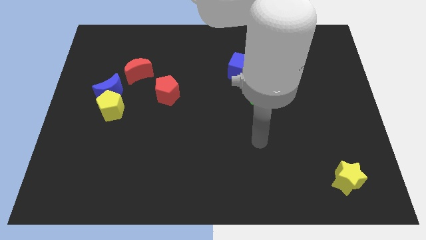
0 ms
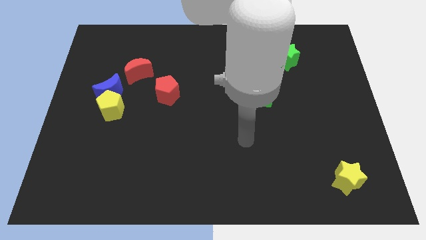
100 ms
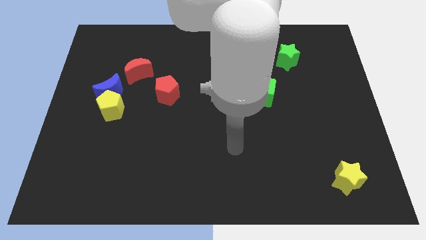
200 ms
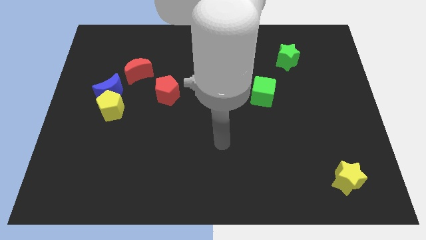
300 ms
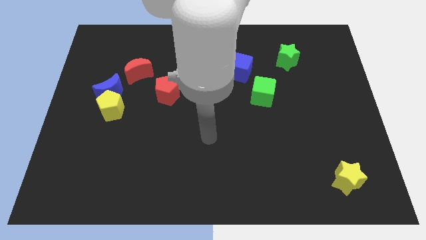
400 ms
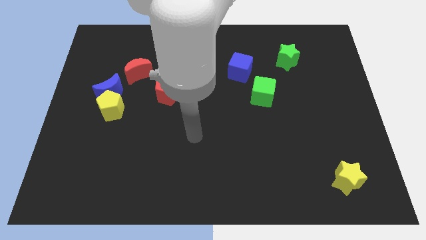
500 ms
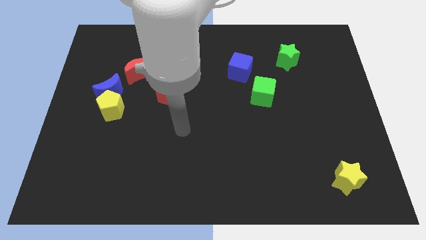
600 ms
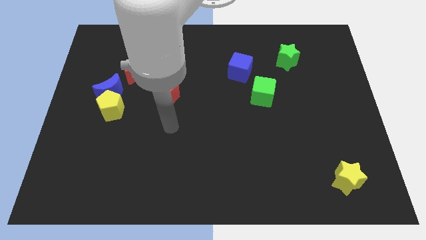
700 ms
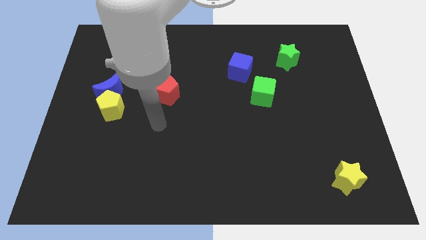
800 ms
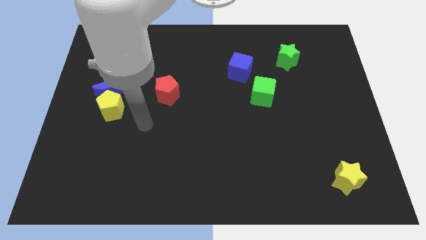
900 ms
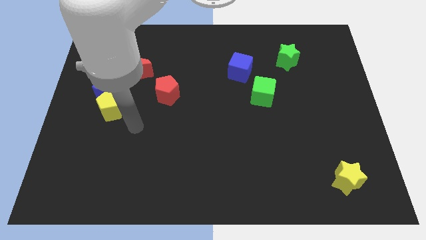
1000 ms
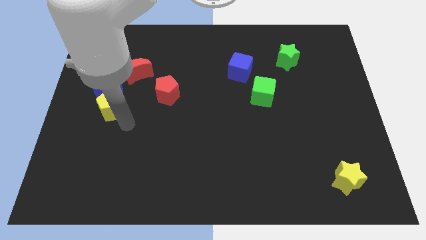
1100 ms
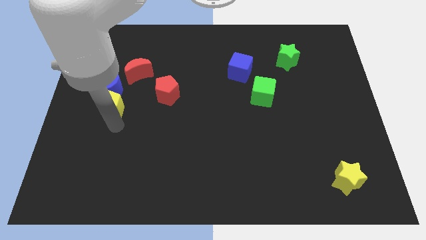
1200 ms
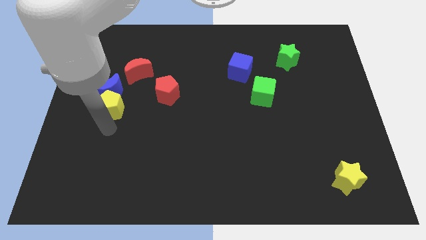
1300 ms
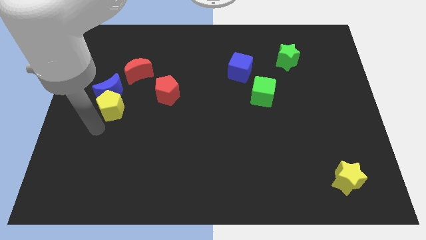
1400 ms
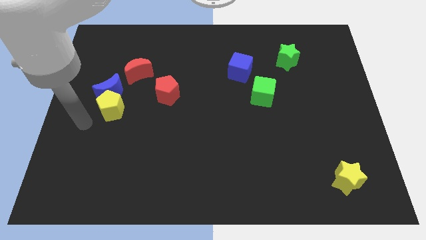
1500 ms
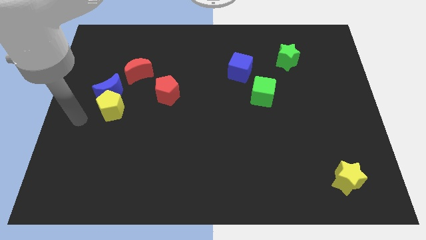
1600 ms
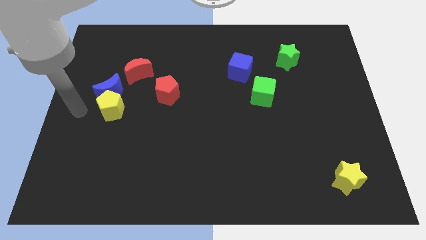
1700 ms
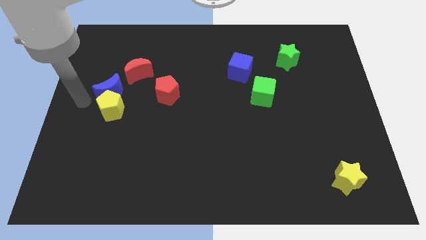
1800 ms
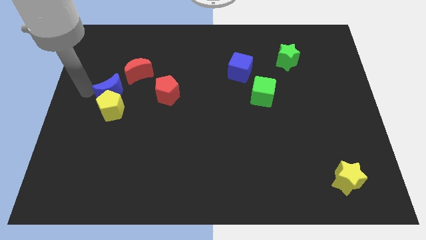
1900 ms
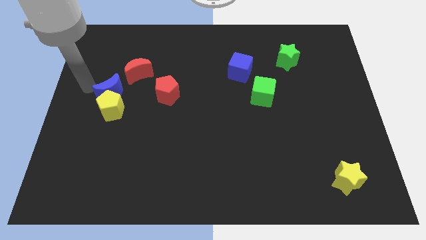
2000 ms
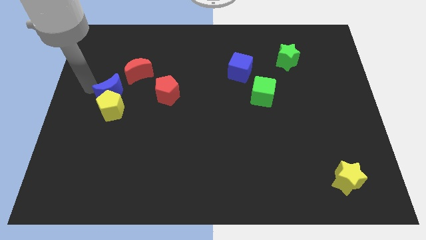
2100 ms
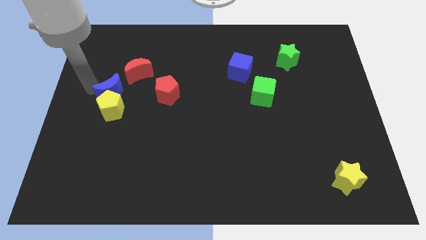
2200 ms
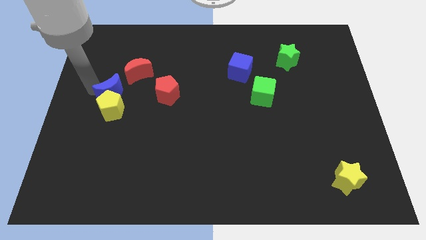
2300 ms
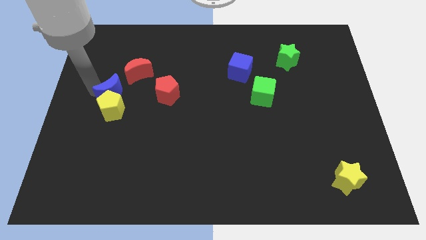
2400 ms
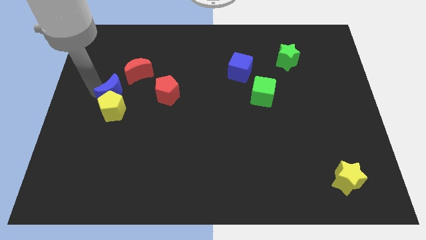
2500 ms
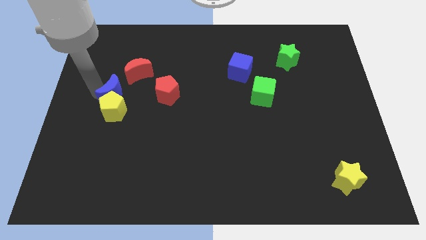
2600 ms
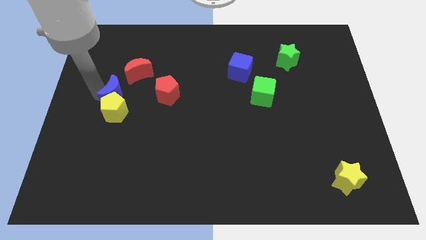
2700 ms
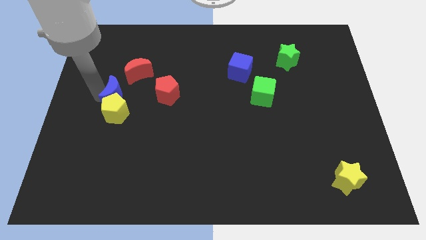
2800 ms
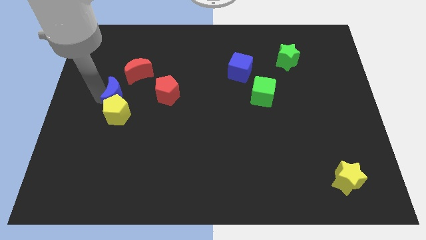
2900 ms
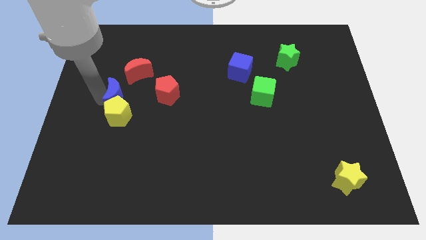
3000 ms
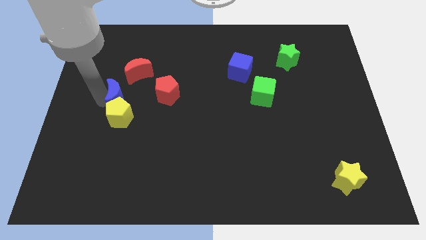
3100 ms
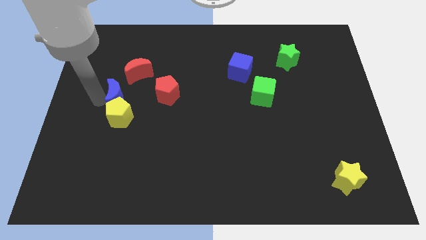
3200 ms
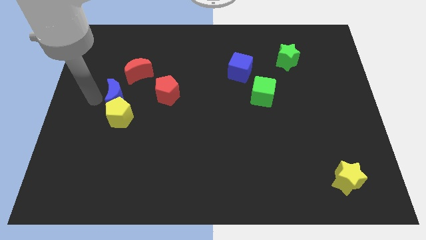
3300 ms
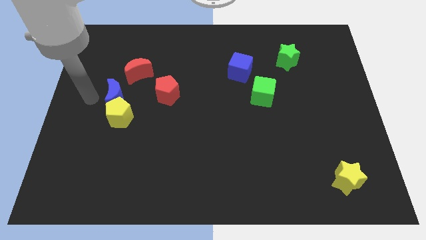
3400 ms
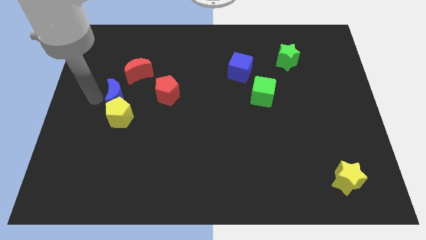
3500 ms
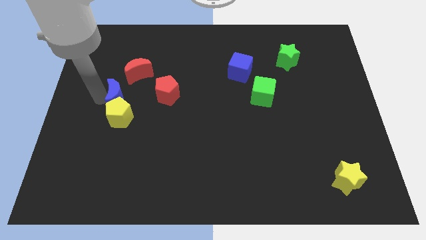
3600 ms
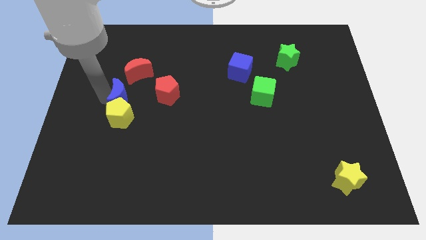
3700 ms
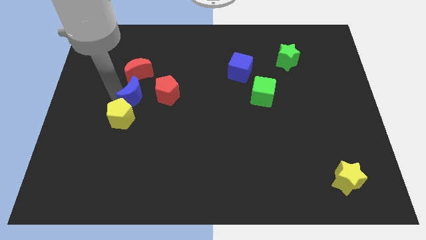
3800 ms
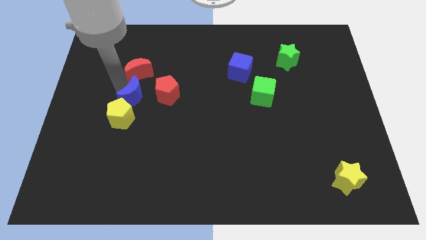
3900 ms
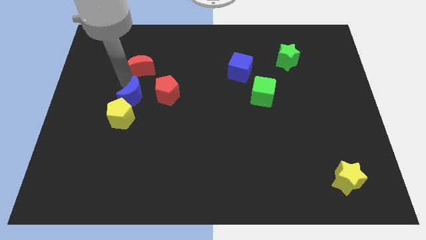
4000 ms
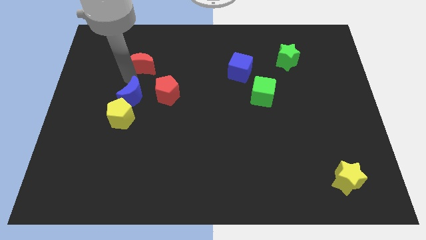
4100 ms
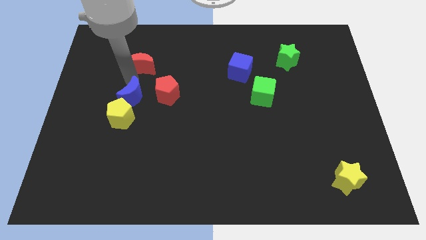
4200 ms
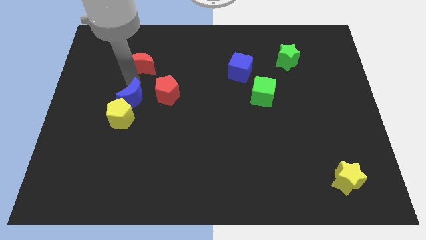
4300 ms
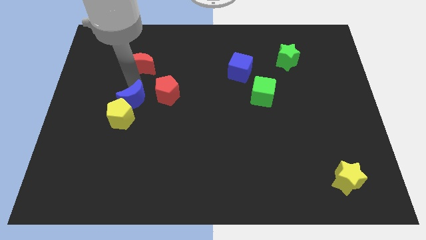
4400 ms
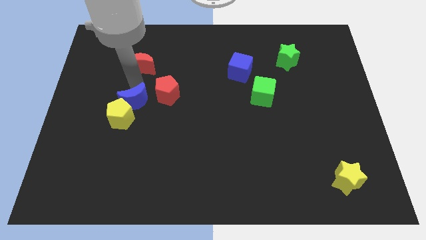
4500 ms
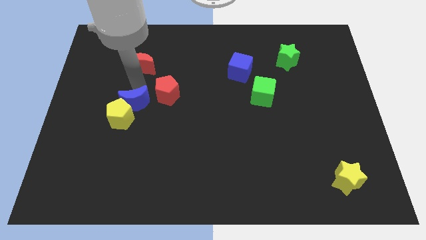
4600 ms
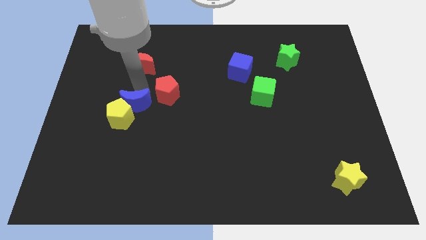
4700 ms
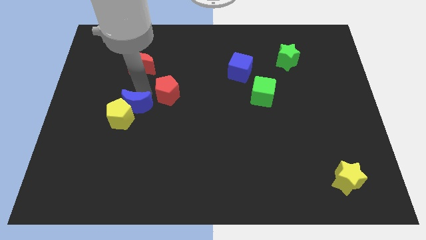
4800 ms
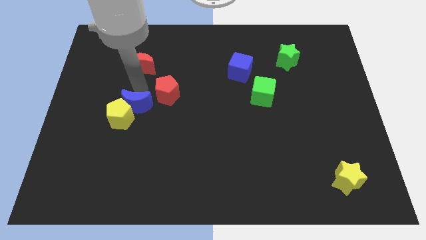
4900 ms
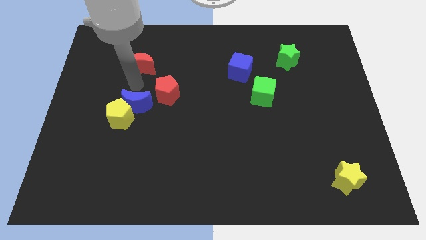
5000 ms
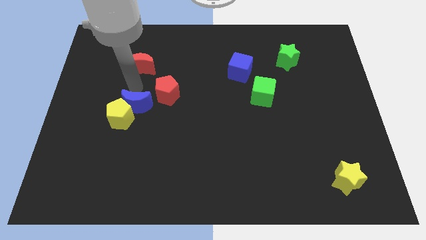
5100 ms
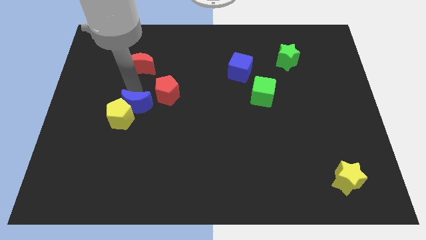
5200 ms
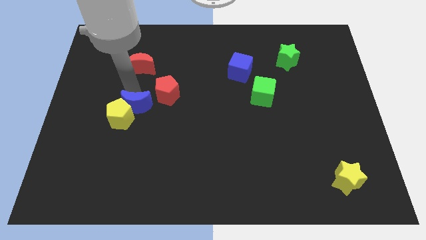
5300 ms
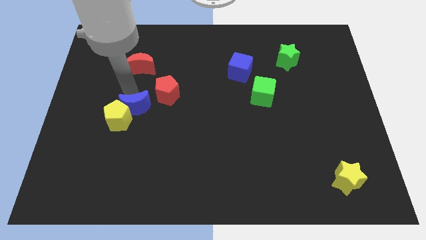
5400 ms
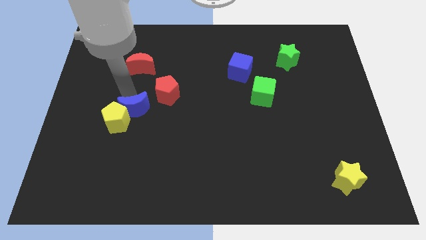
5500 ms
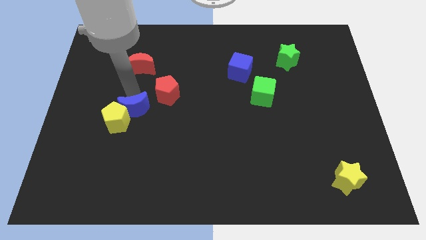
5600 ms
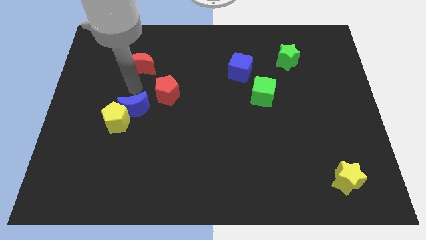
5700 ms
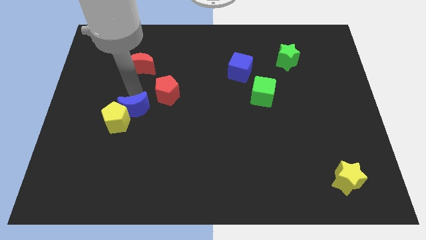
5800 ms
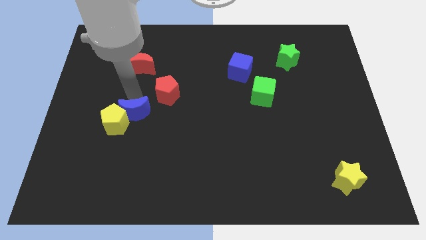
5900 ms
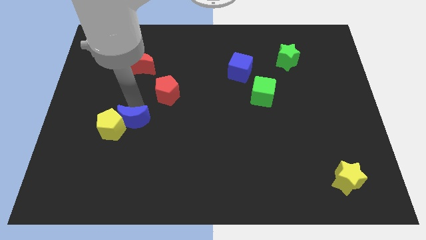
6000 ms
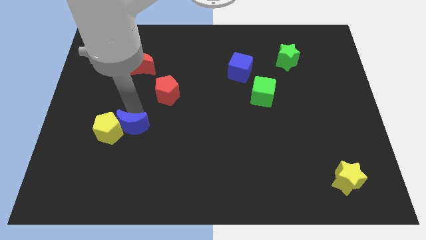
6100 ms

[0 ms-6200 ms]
push the blue moon to the bottom right of the yellow pentagon

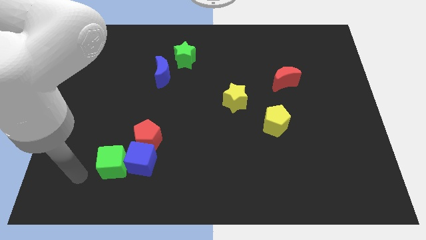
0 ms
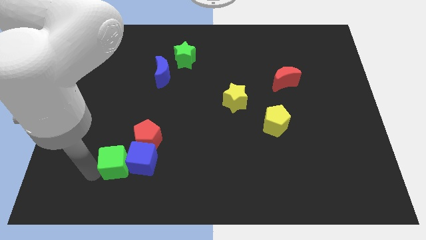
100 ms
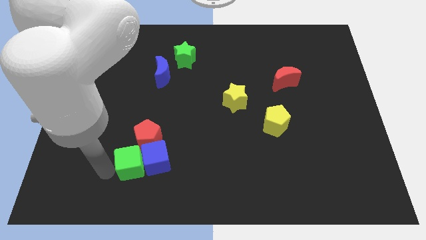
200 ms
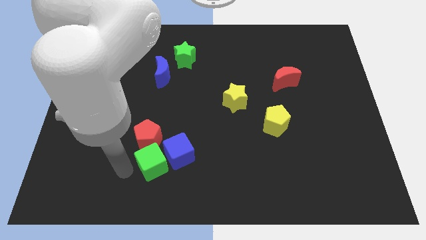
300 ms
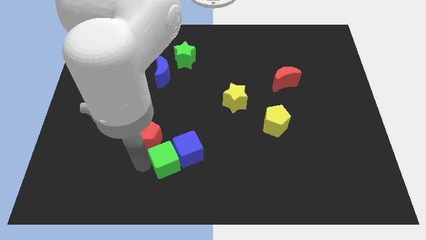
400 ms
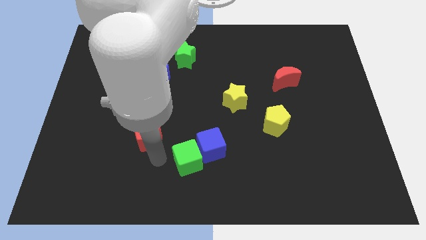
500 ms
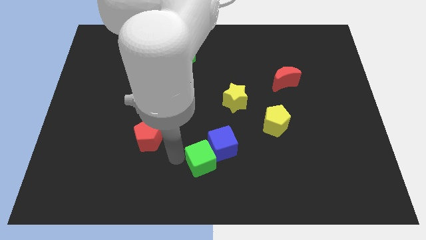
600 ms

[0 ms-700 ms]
push the blue cube to the bottom of the yellow star
